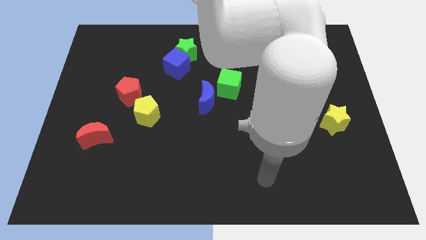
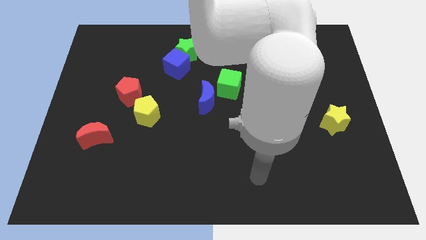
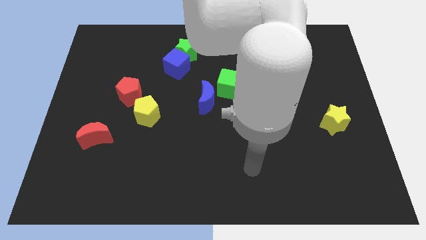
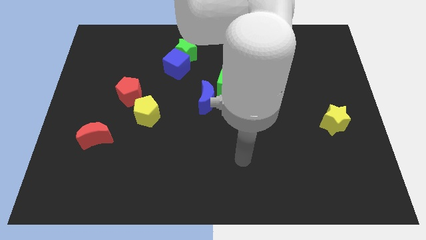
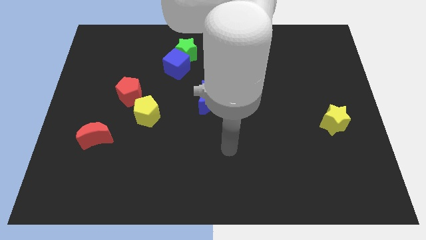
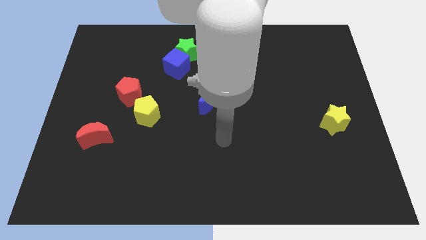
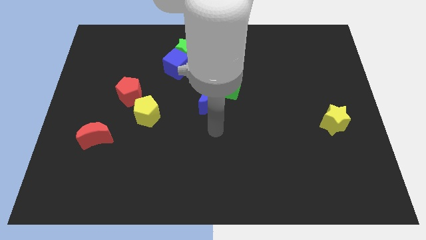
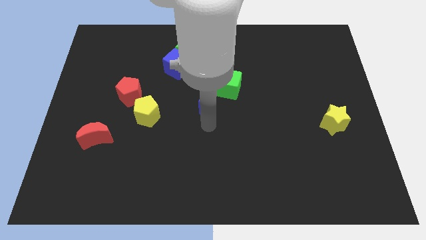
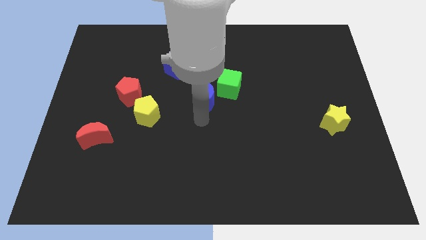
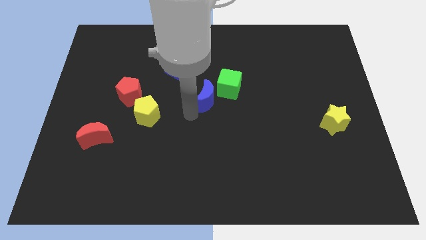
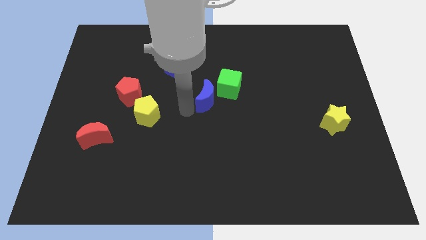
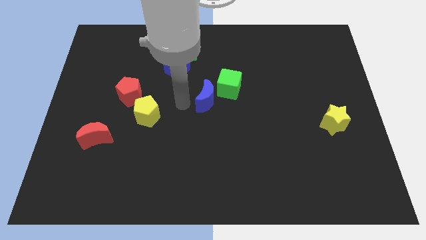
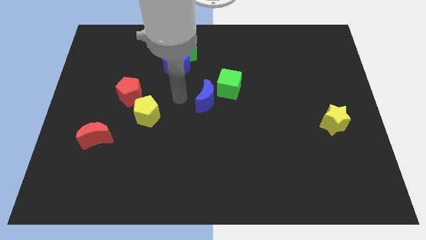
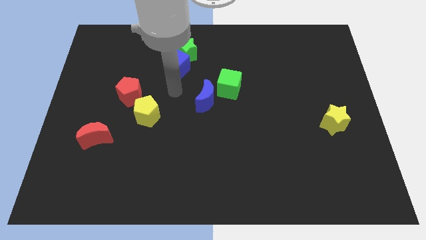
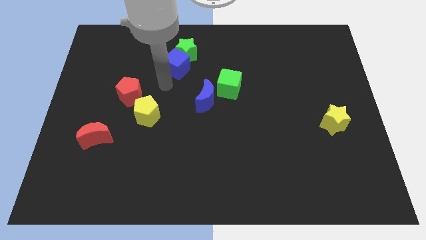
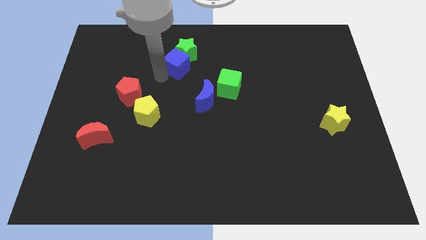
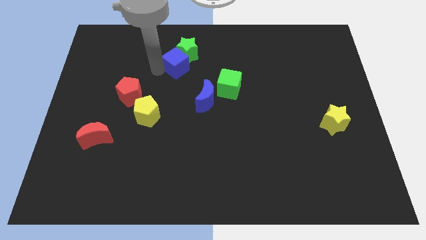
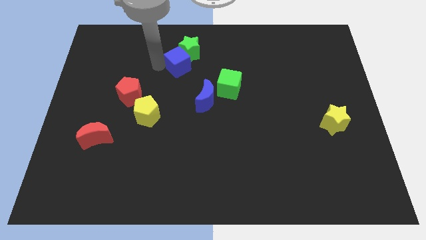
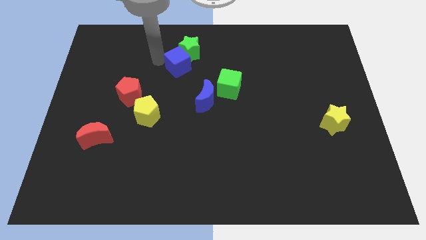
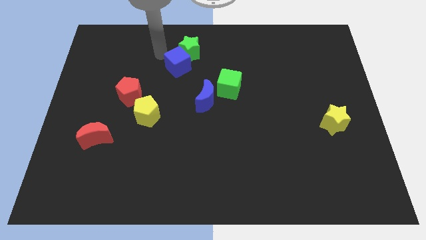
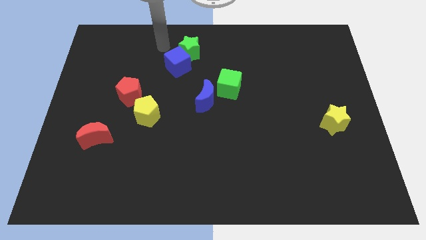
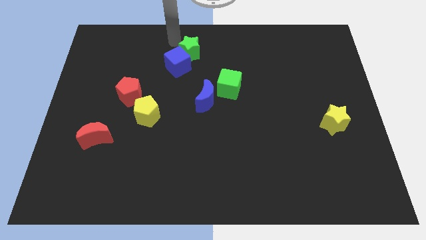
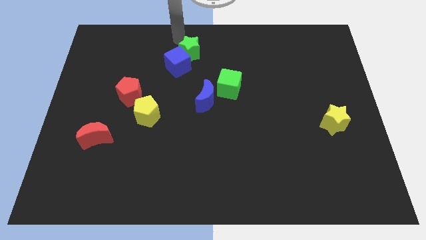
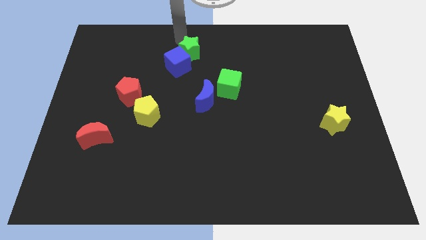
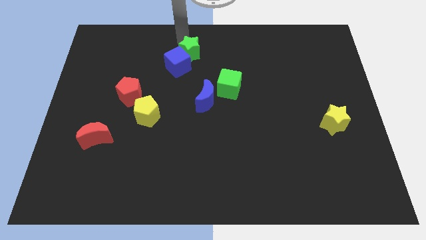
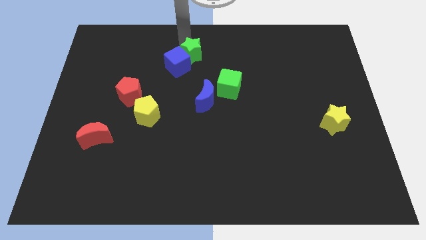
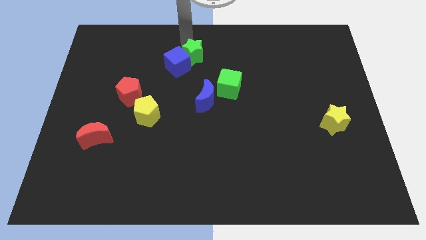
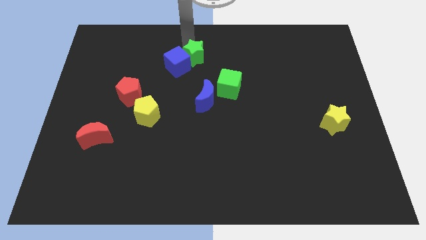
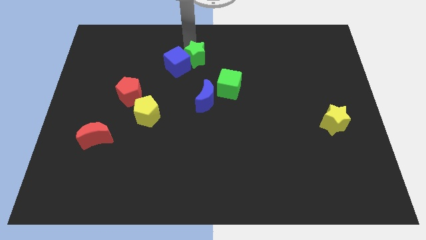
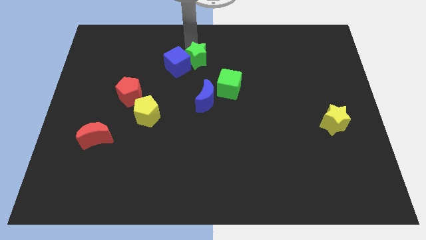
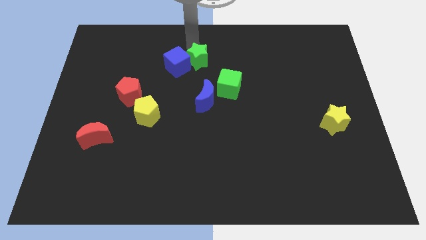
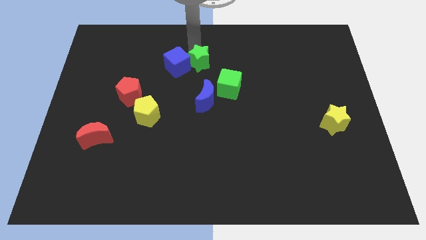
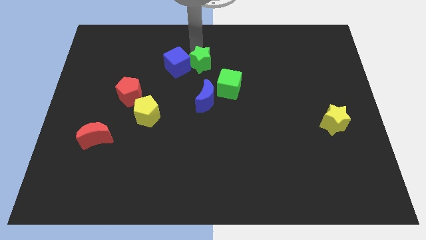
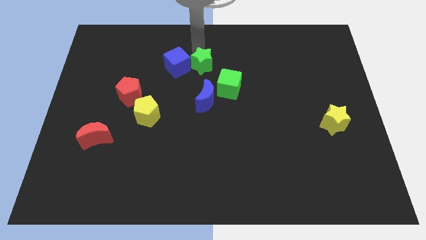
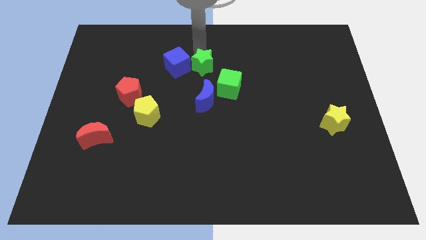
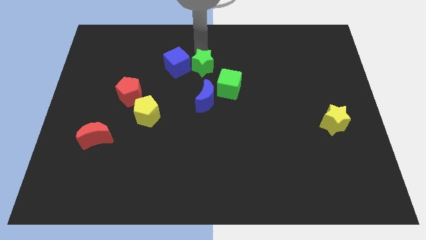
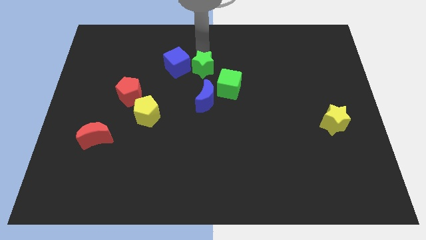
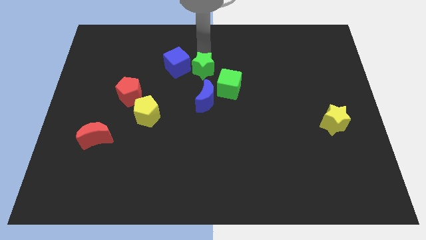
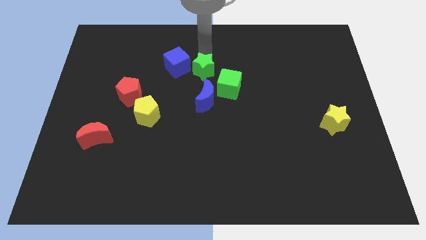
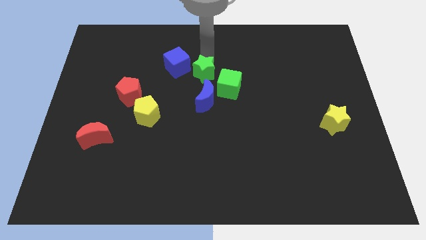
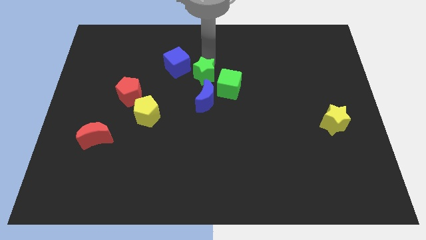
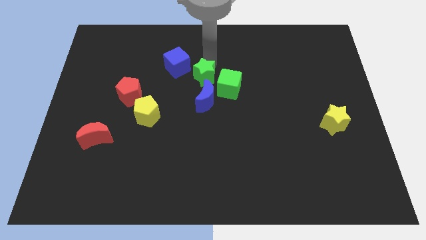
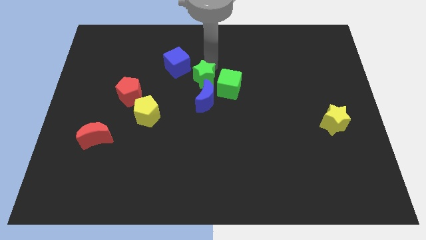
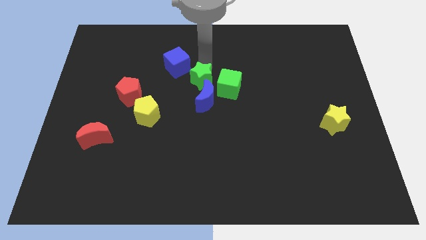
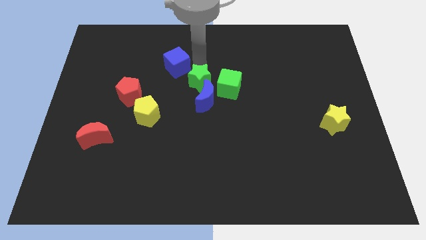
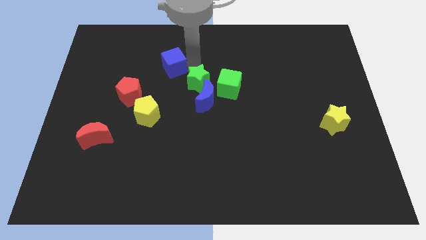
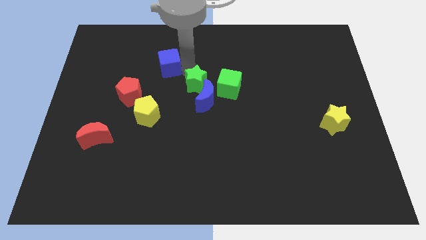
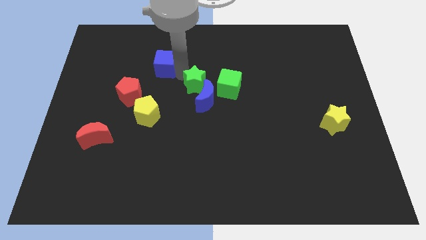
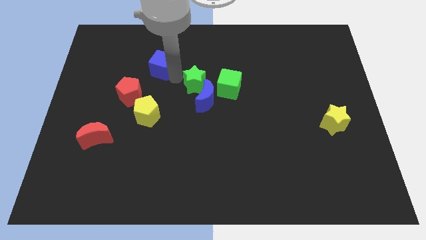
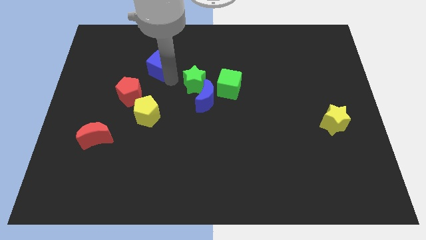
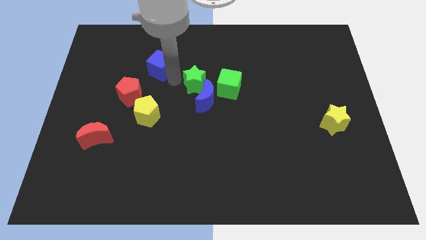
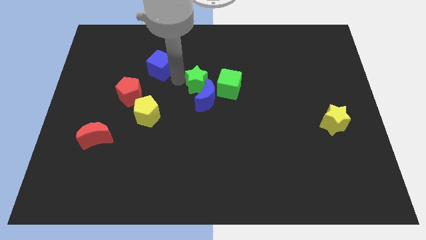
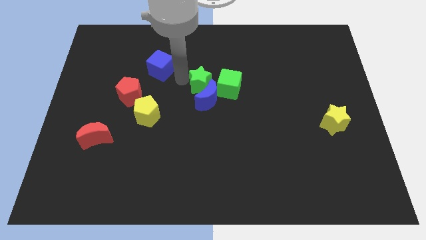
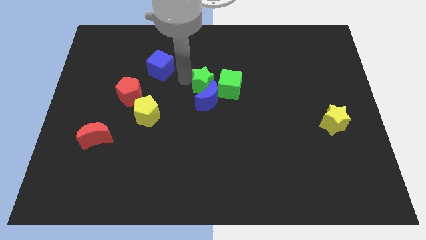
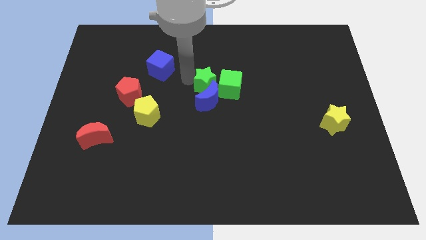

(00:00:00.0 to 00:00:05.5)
push the green star towards the green cube

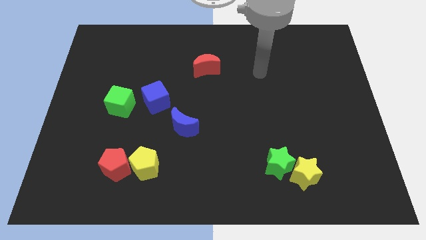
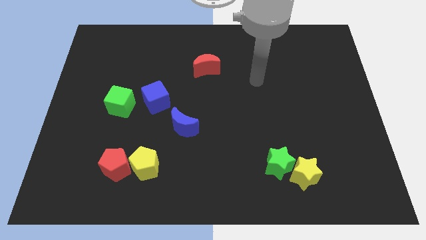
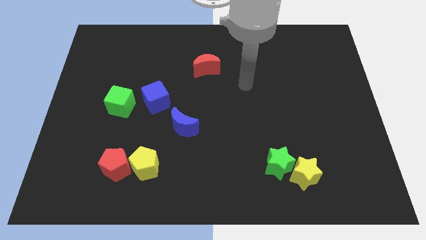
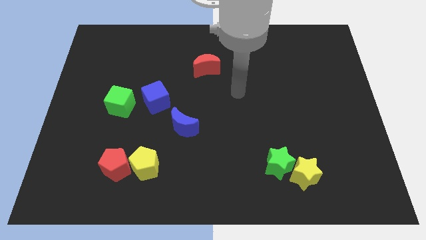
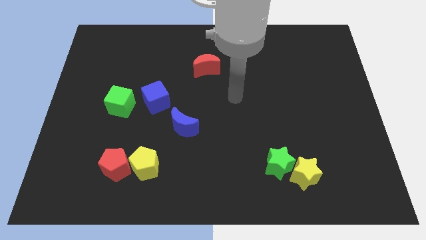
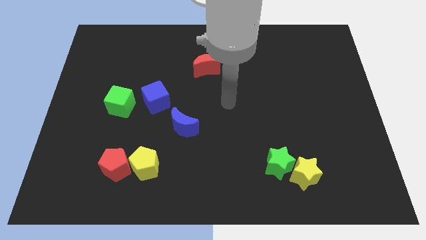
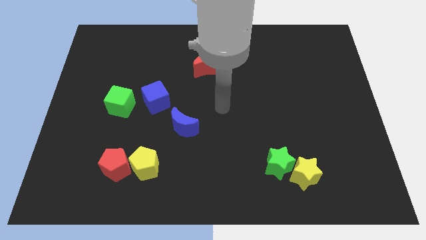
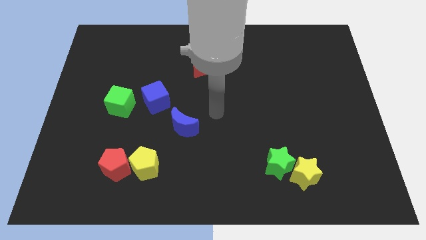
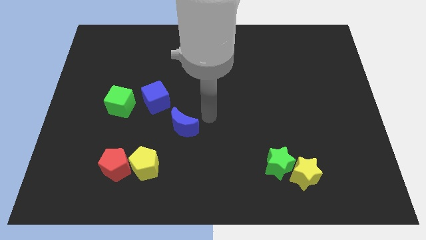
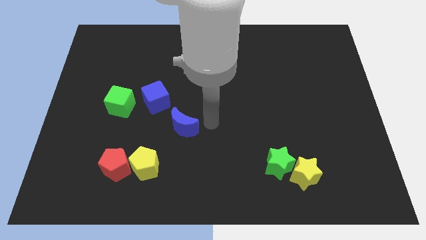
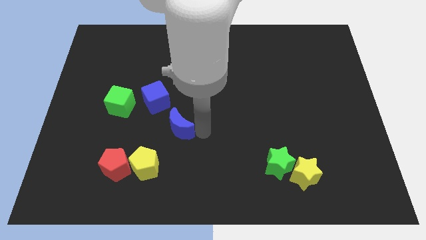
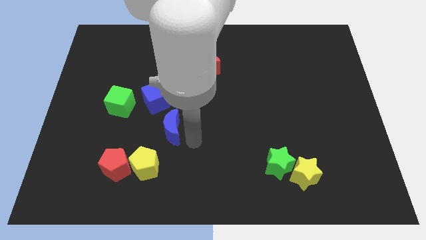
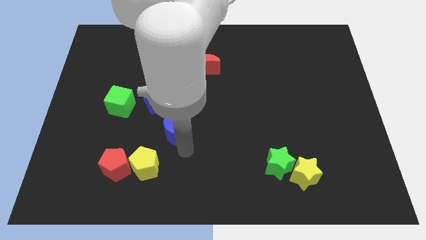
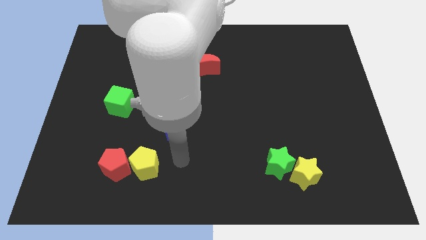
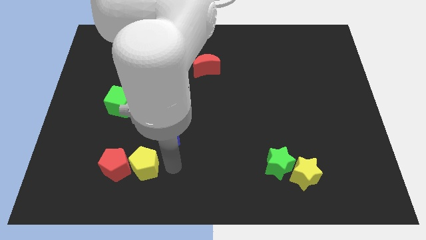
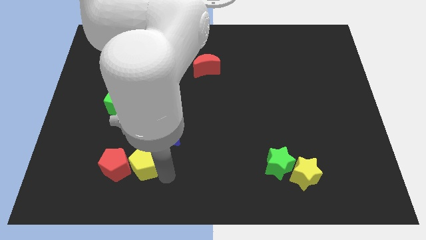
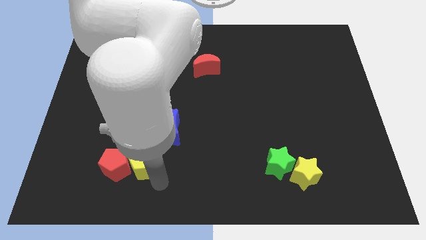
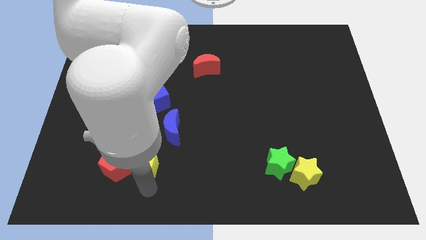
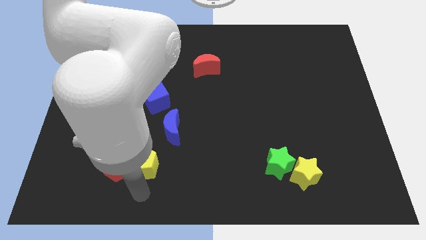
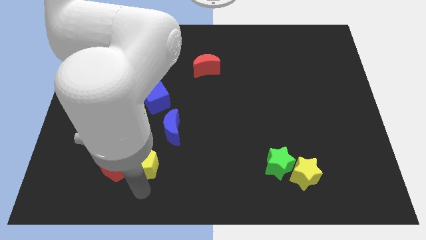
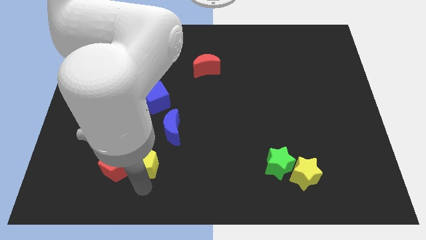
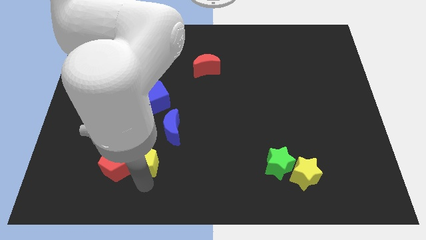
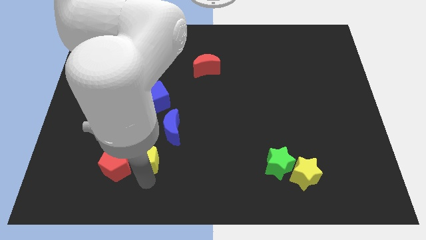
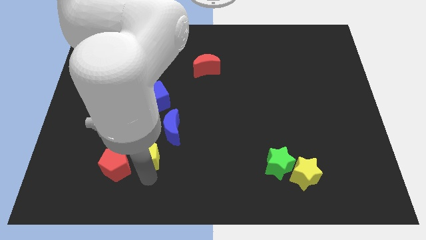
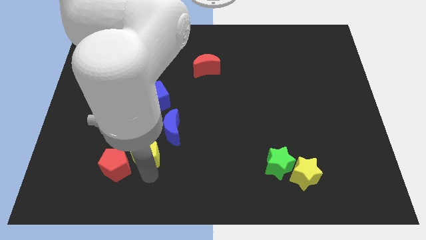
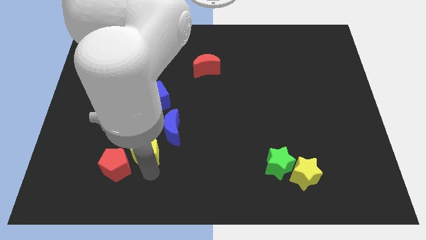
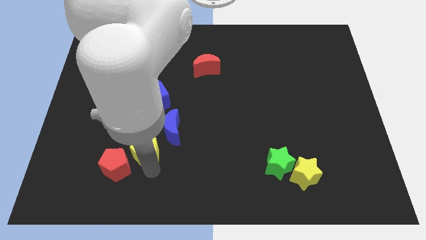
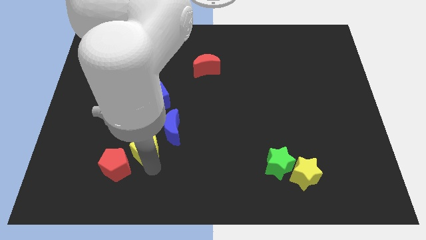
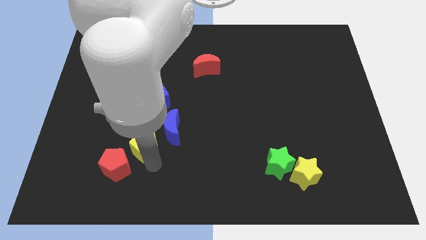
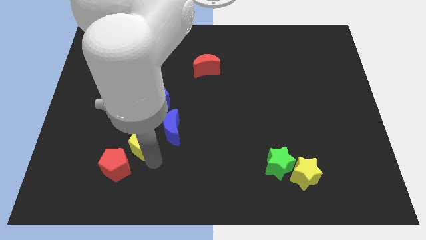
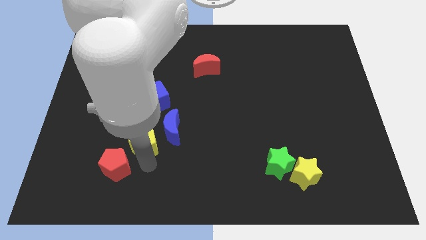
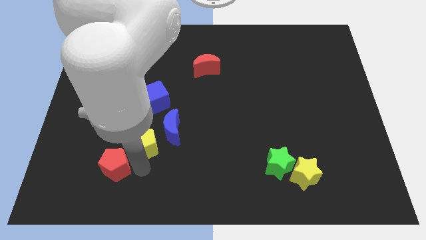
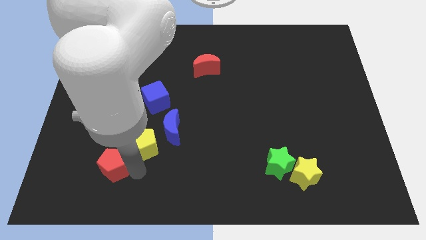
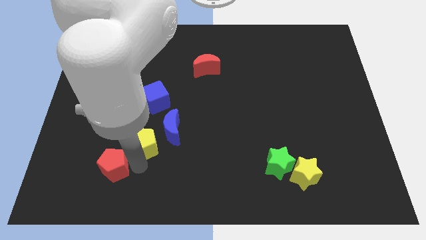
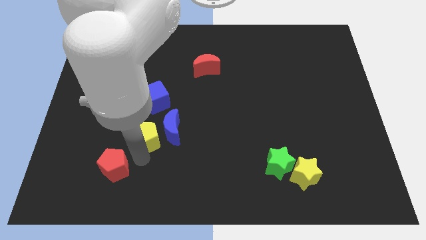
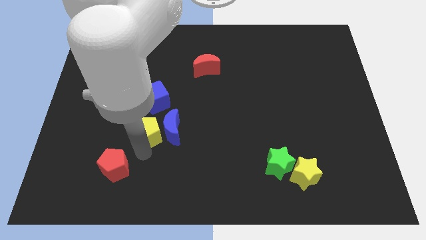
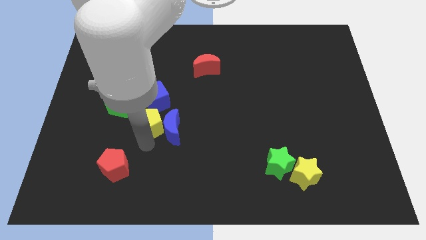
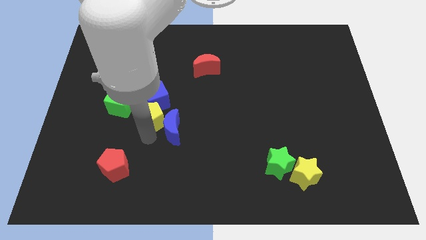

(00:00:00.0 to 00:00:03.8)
slide the yellow pentagon close to the blue cube
